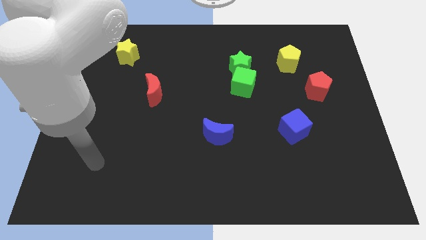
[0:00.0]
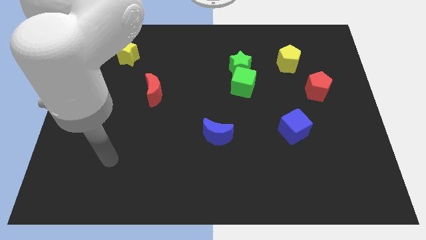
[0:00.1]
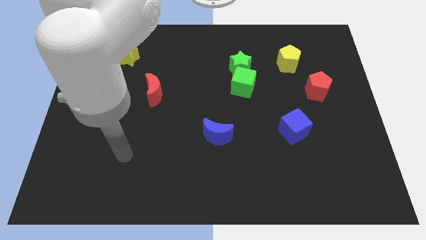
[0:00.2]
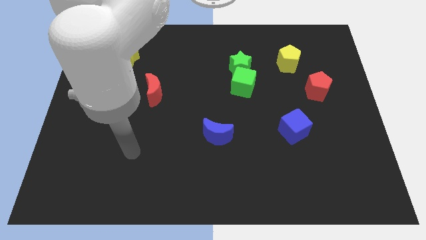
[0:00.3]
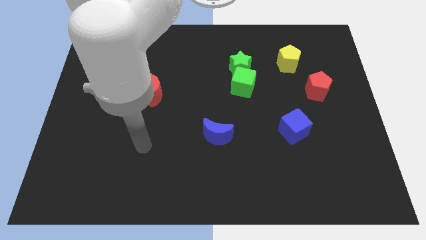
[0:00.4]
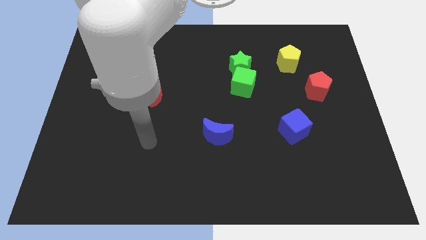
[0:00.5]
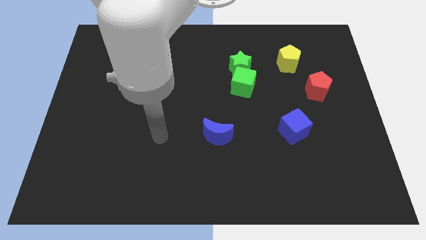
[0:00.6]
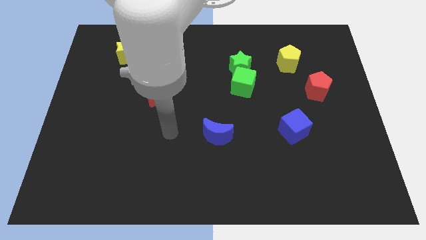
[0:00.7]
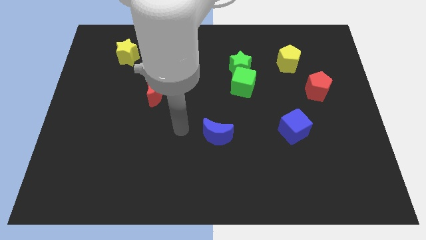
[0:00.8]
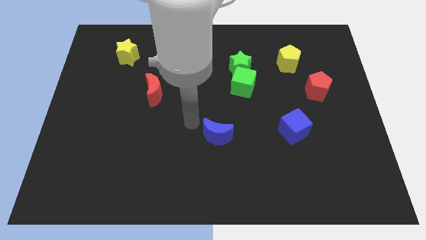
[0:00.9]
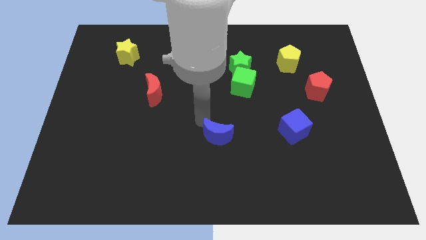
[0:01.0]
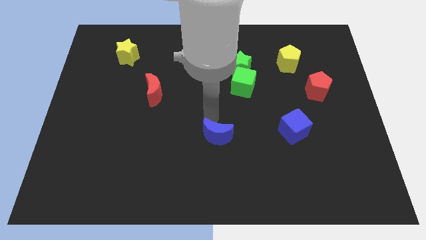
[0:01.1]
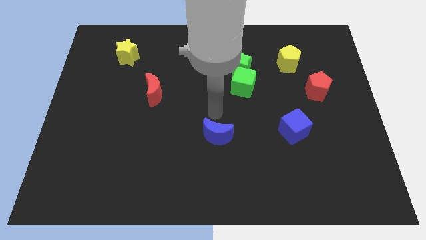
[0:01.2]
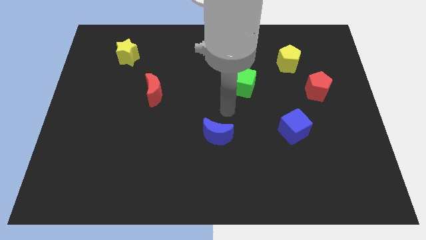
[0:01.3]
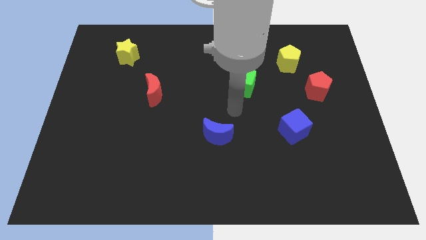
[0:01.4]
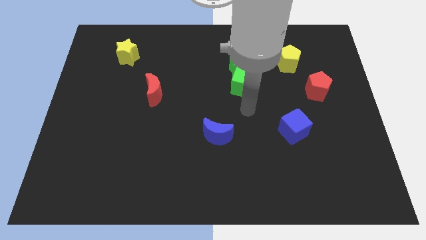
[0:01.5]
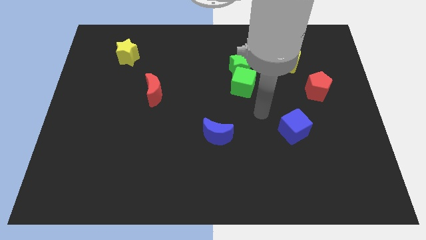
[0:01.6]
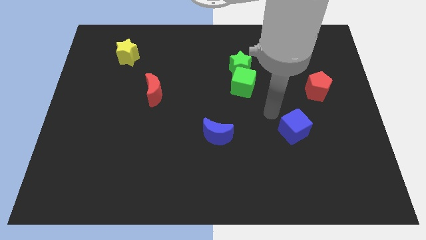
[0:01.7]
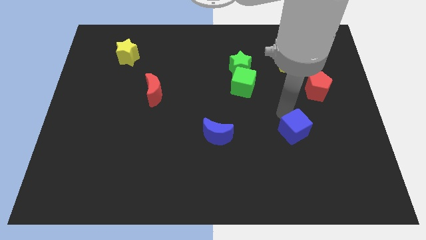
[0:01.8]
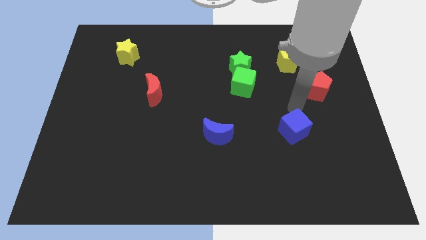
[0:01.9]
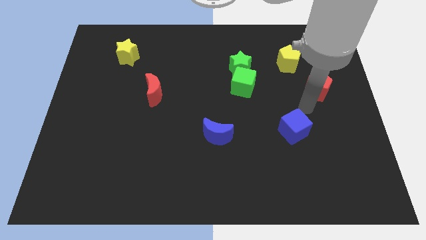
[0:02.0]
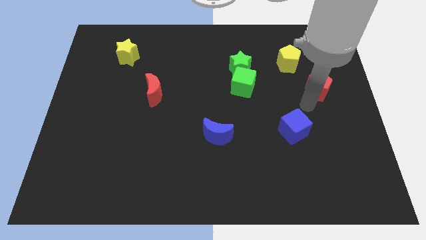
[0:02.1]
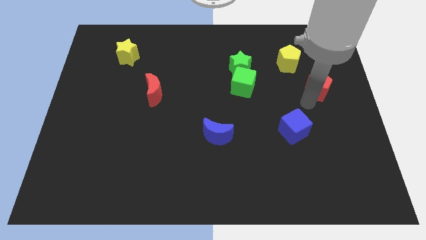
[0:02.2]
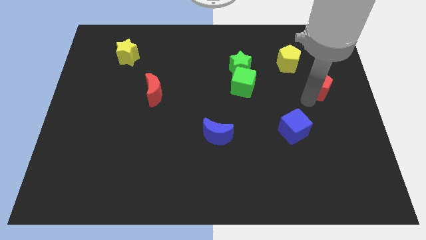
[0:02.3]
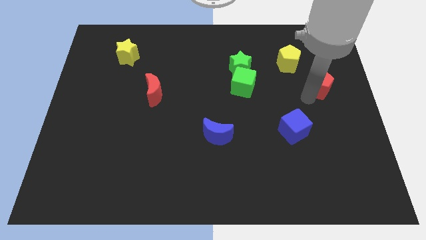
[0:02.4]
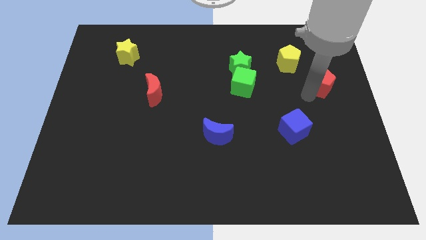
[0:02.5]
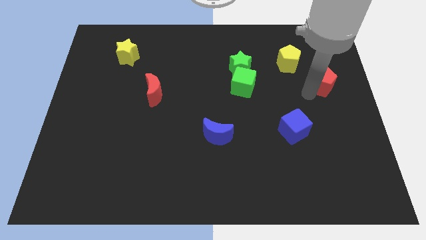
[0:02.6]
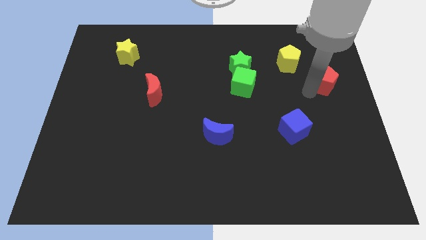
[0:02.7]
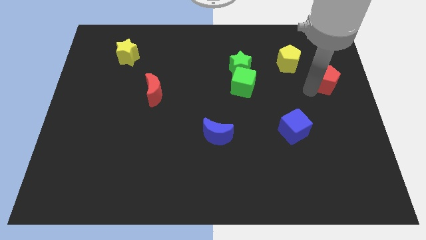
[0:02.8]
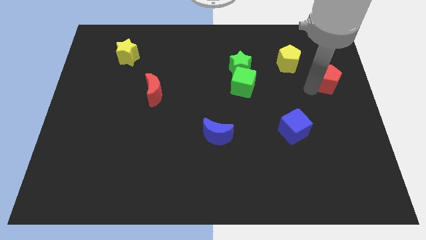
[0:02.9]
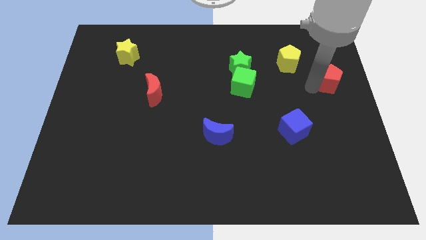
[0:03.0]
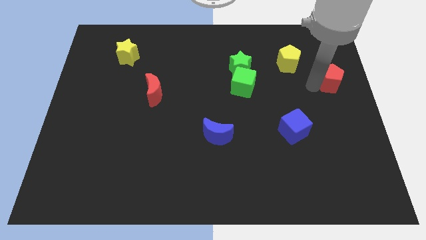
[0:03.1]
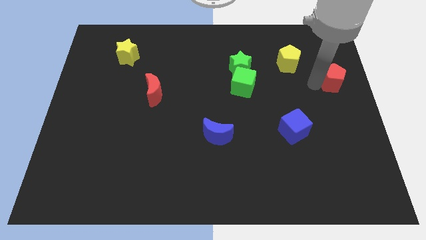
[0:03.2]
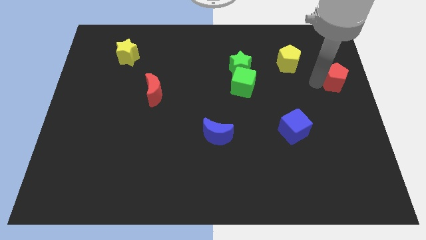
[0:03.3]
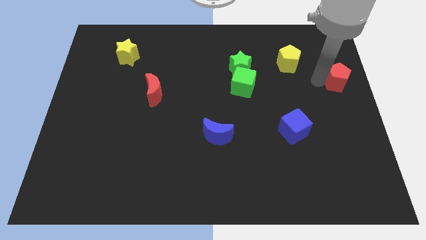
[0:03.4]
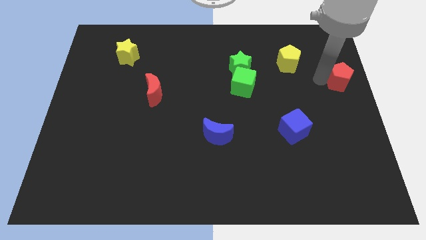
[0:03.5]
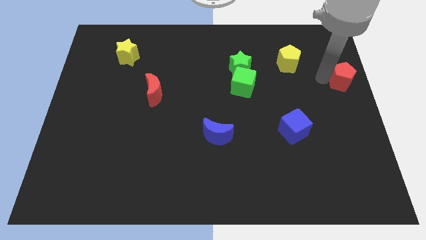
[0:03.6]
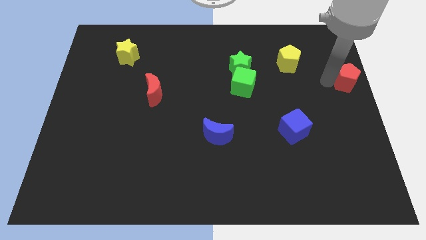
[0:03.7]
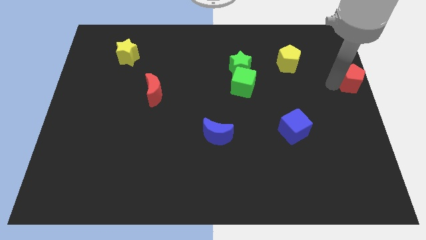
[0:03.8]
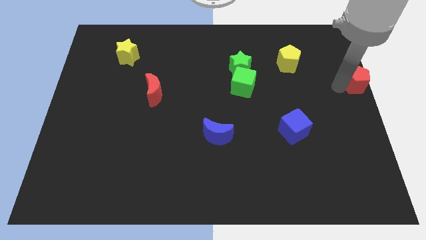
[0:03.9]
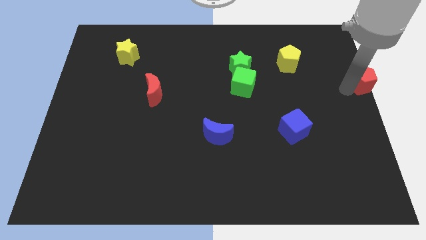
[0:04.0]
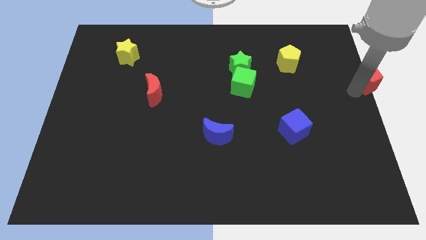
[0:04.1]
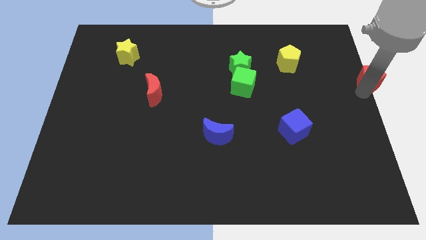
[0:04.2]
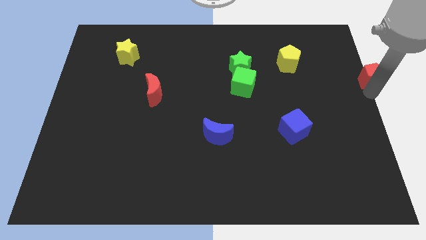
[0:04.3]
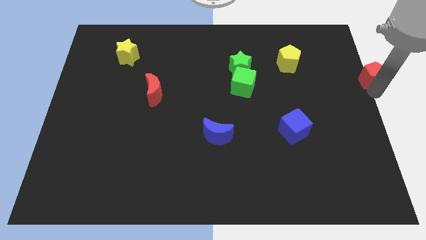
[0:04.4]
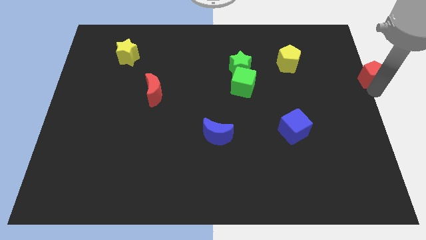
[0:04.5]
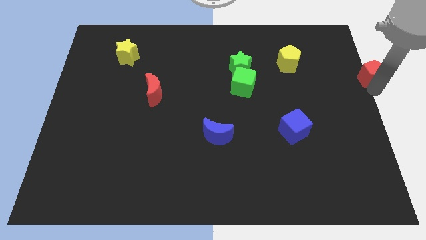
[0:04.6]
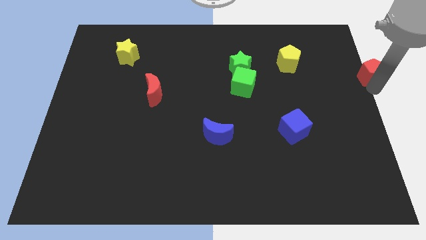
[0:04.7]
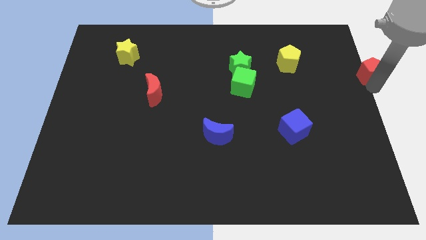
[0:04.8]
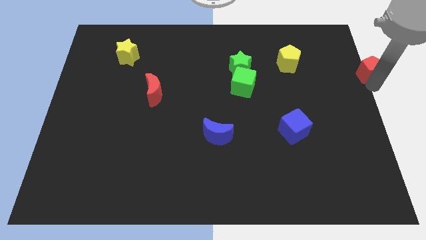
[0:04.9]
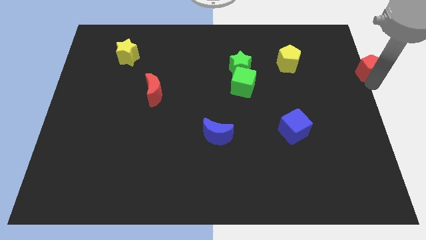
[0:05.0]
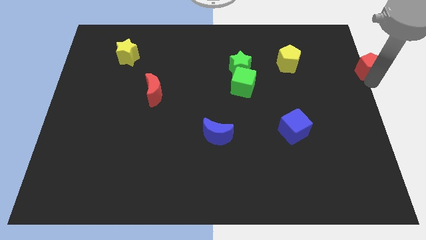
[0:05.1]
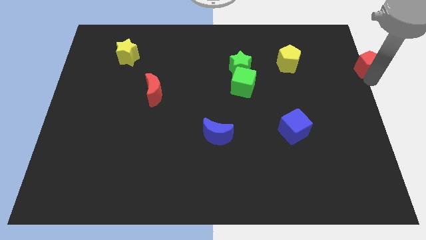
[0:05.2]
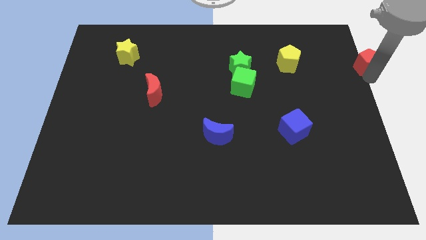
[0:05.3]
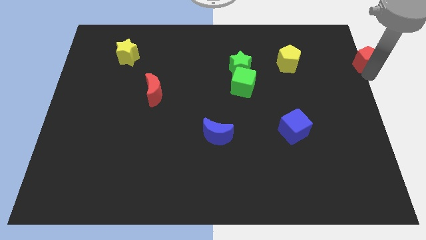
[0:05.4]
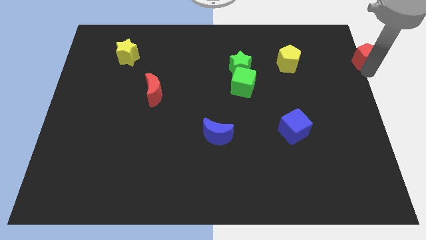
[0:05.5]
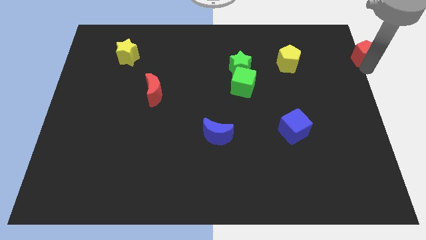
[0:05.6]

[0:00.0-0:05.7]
put the red pentagon to the top right

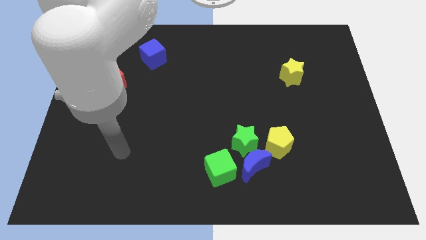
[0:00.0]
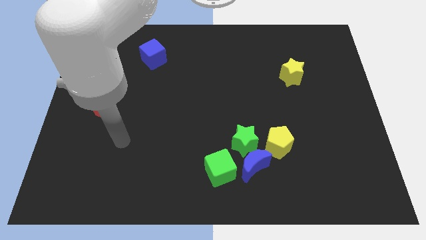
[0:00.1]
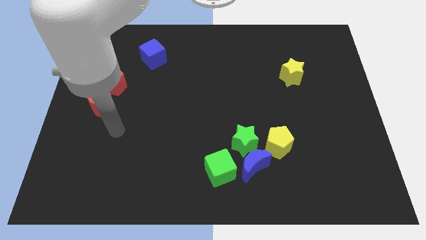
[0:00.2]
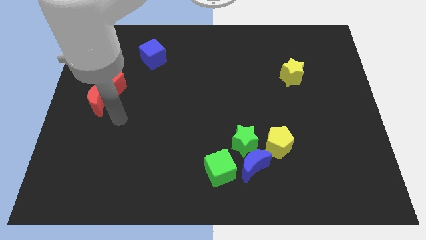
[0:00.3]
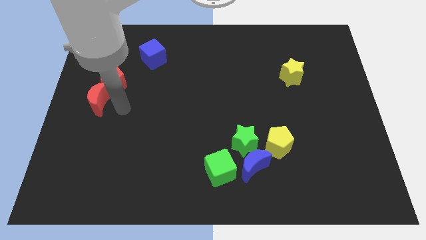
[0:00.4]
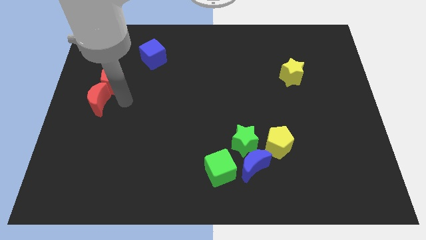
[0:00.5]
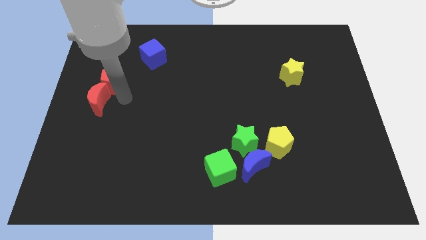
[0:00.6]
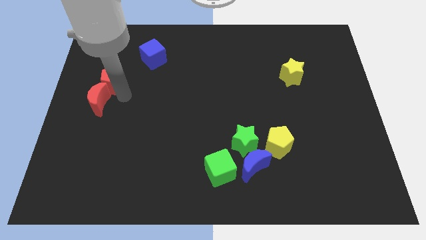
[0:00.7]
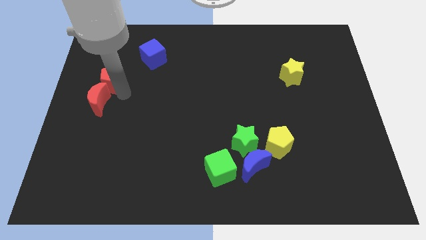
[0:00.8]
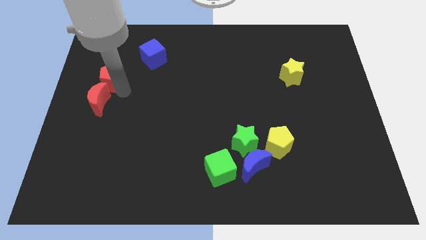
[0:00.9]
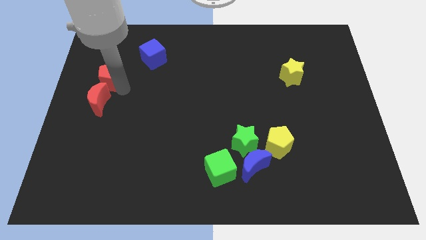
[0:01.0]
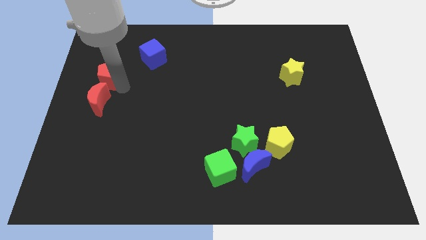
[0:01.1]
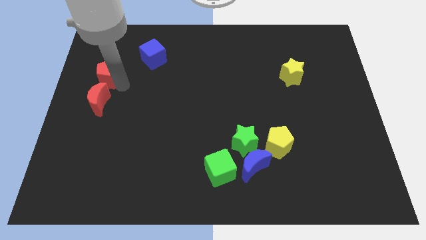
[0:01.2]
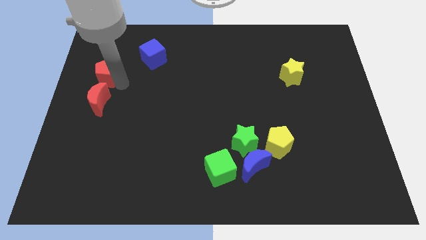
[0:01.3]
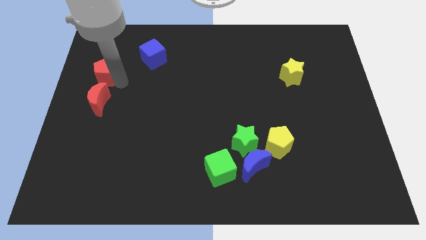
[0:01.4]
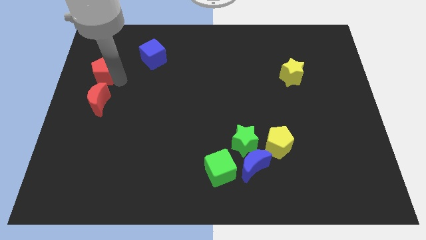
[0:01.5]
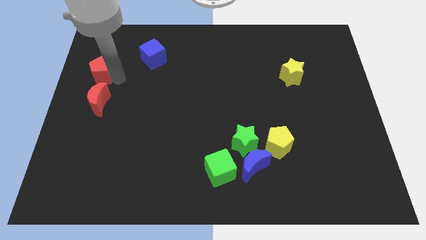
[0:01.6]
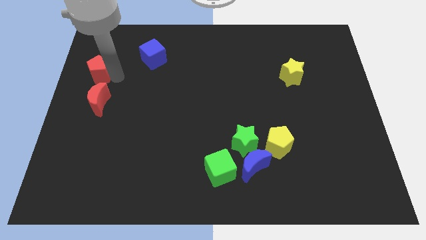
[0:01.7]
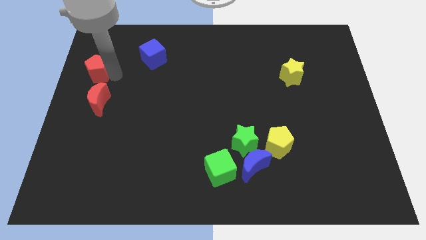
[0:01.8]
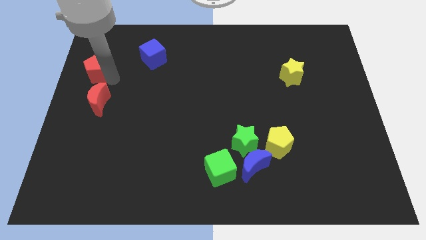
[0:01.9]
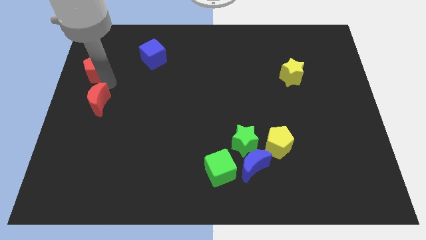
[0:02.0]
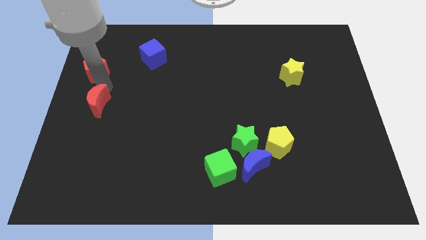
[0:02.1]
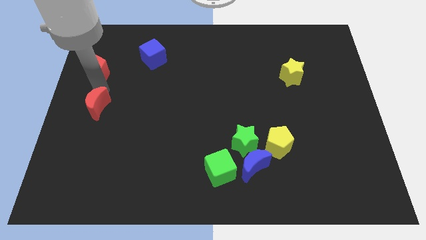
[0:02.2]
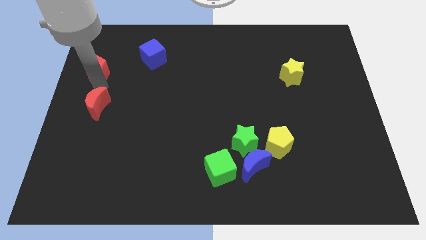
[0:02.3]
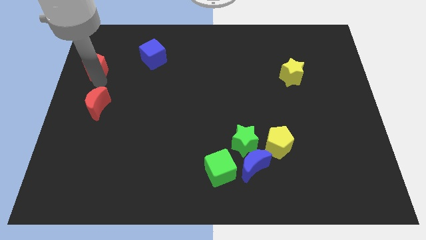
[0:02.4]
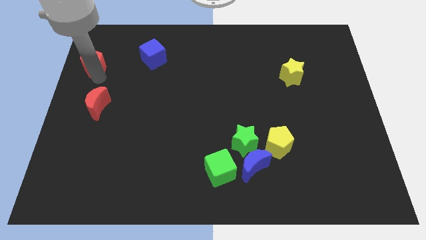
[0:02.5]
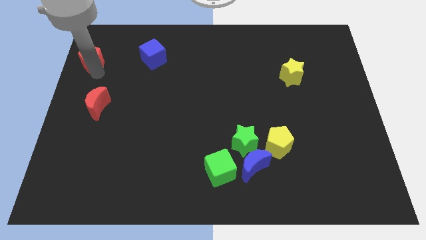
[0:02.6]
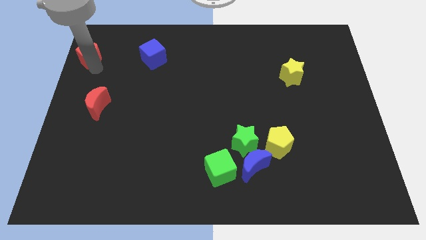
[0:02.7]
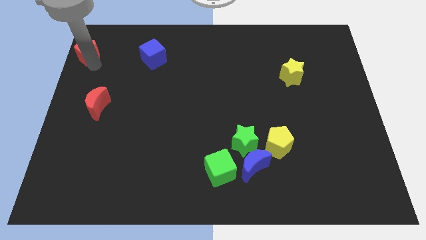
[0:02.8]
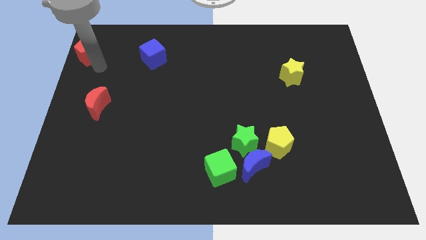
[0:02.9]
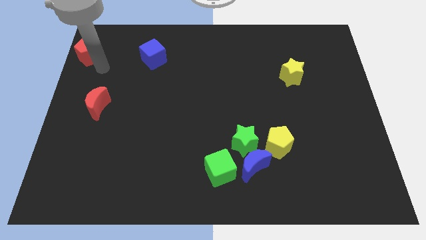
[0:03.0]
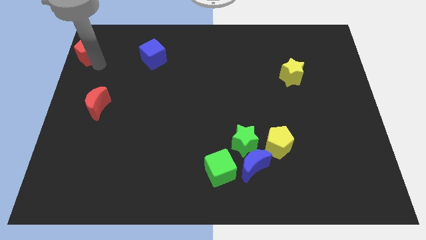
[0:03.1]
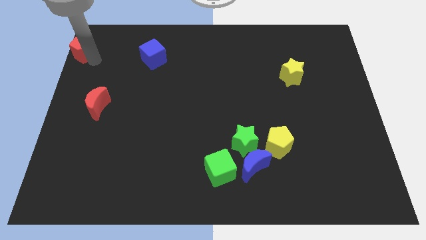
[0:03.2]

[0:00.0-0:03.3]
push the red pentagon to the upper left corner
